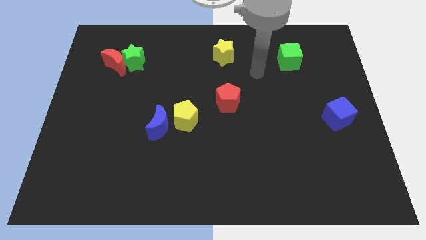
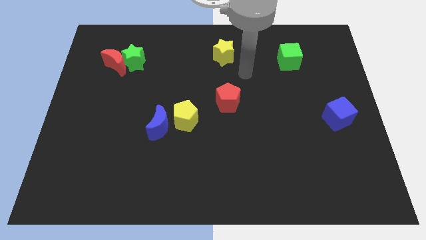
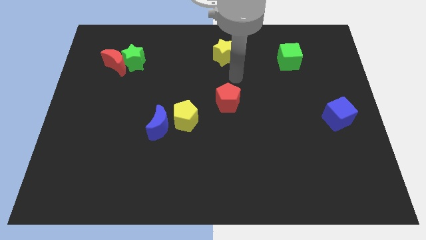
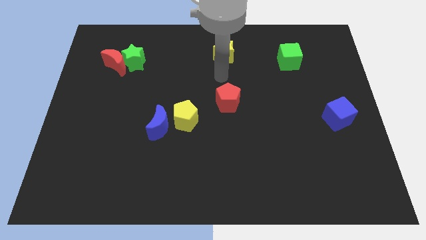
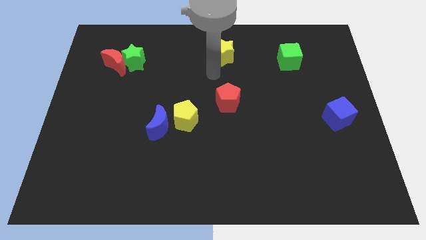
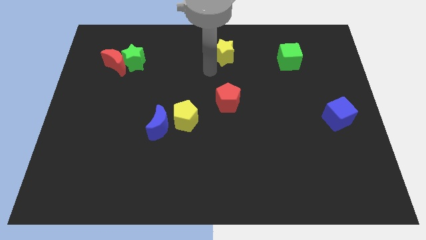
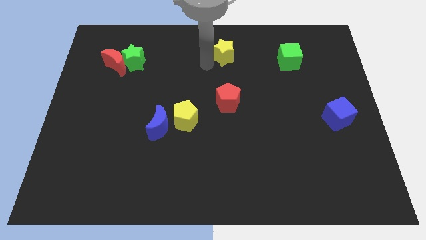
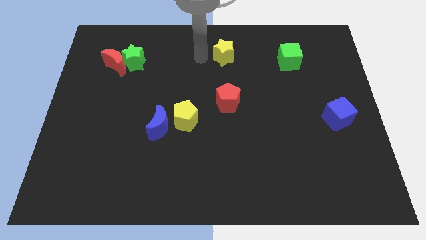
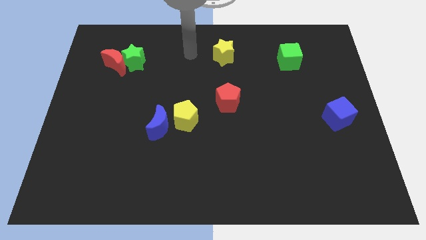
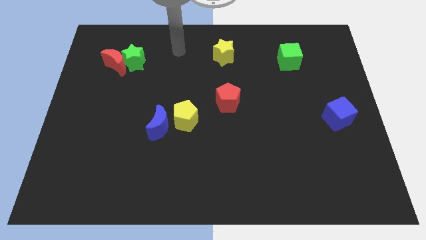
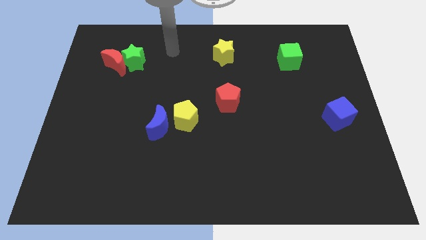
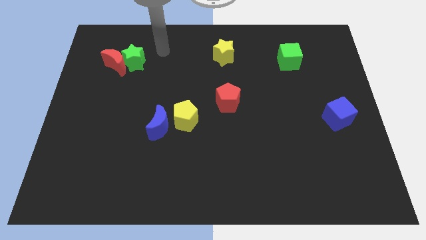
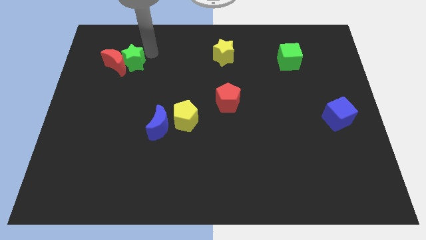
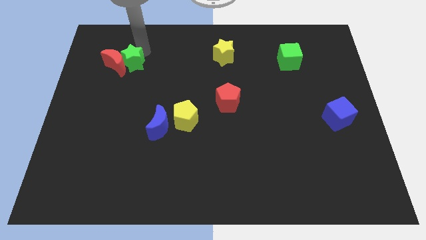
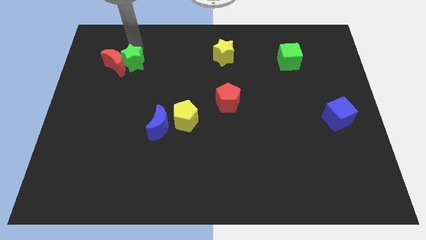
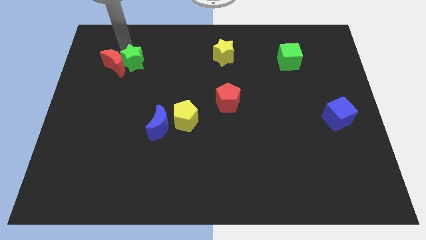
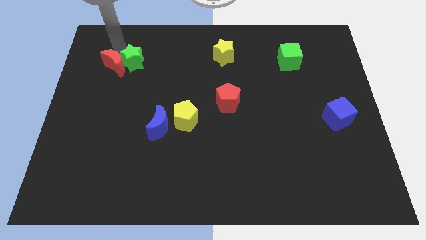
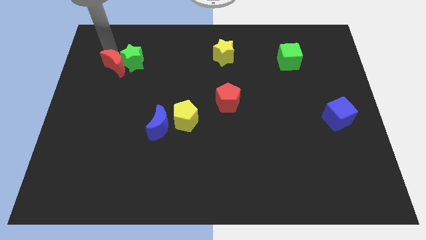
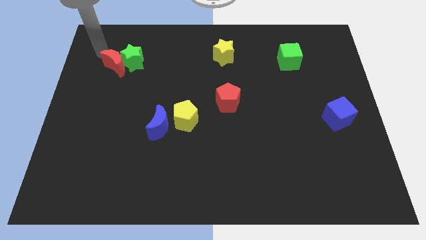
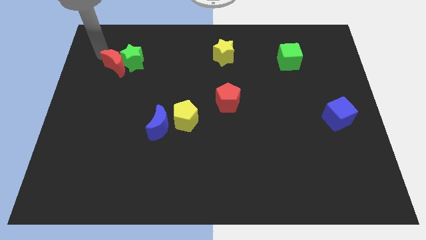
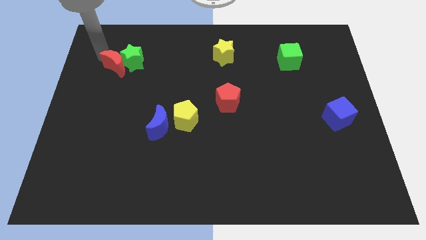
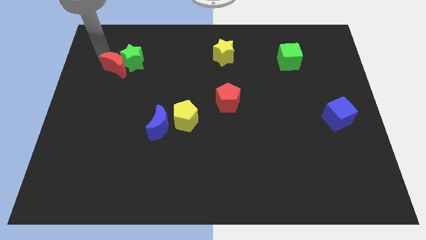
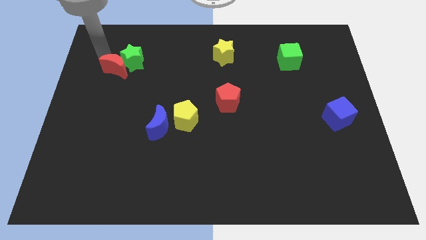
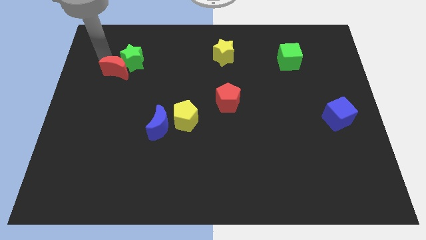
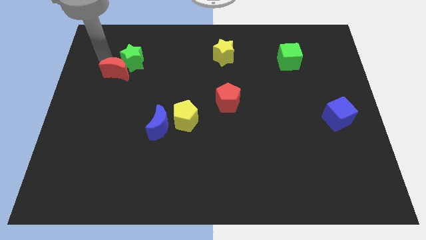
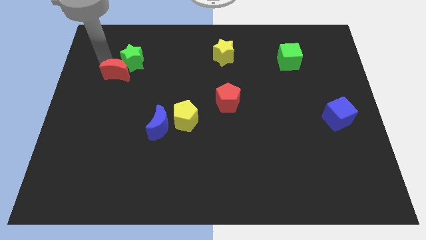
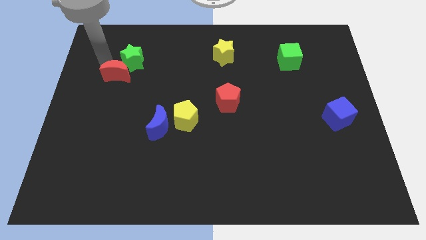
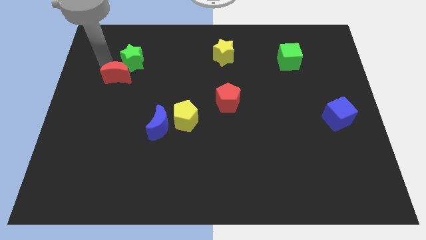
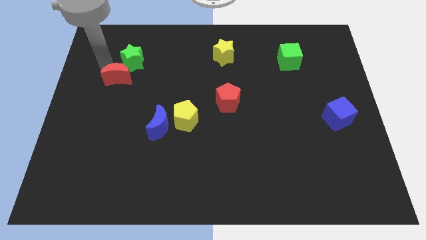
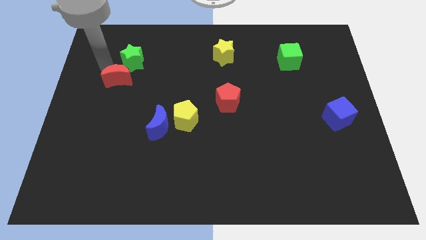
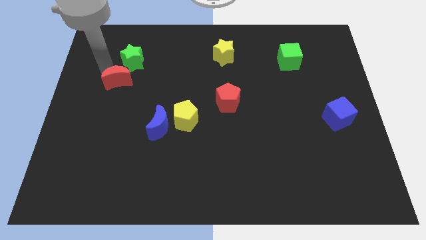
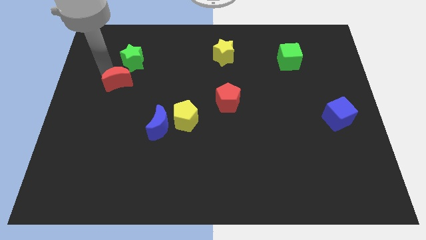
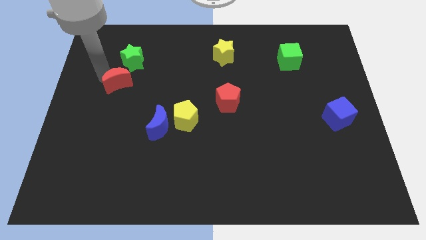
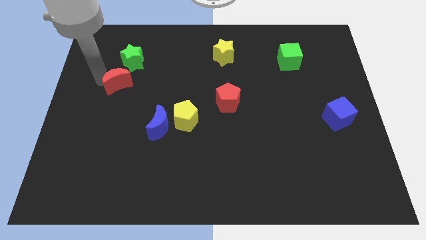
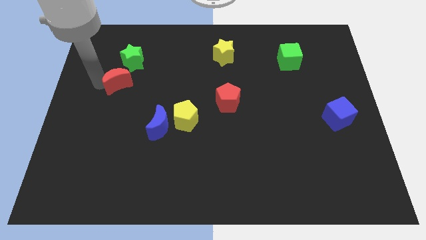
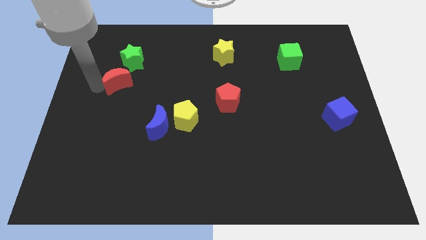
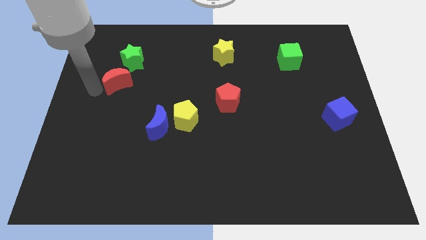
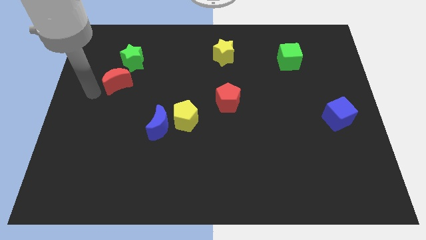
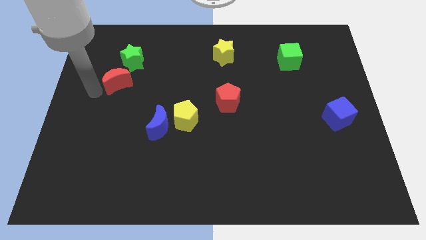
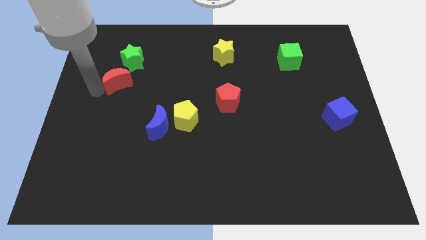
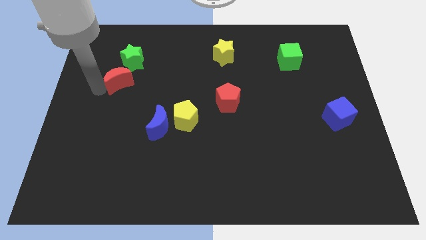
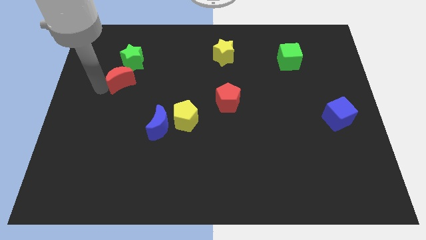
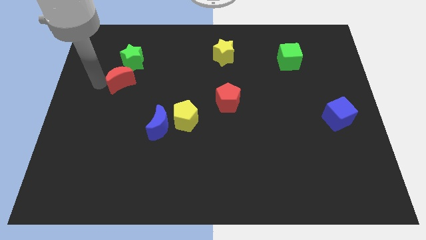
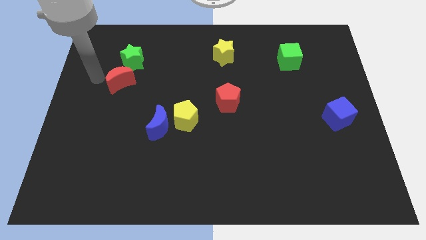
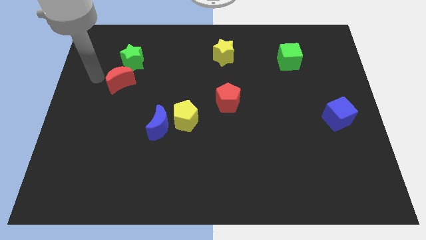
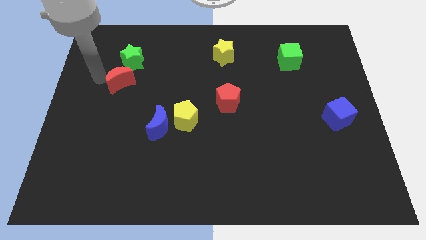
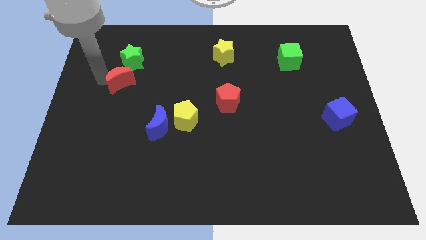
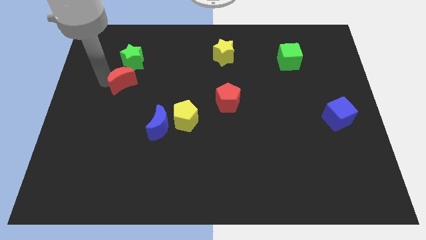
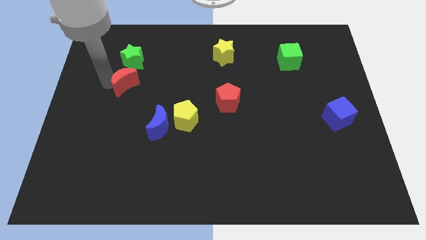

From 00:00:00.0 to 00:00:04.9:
move the red moon somewhat diagonally down and right

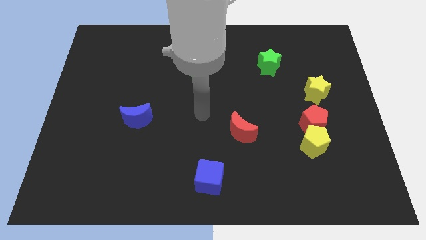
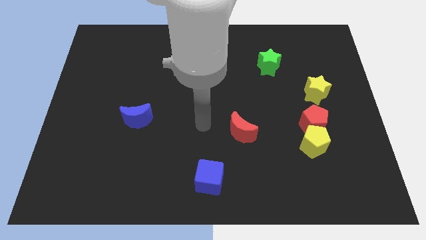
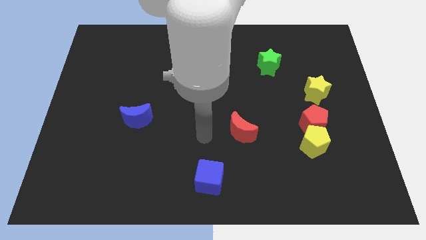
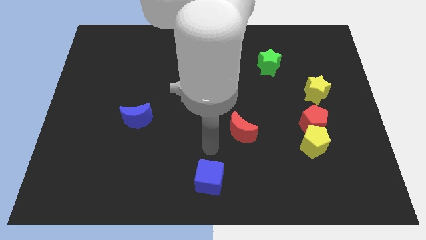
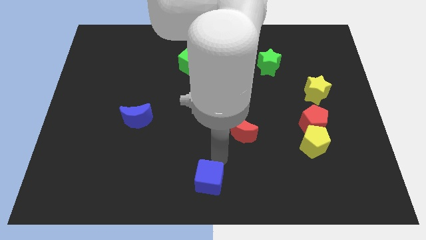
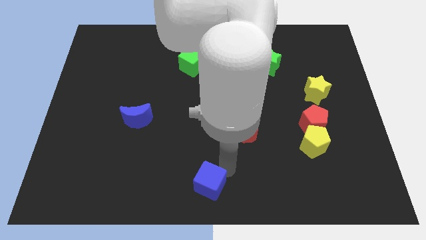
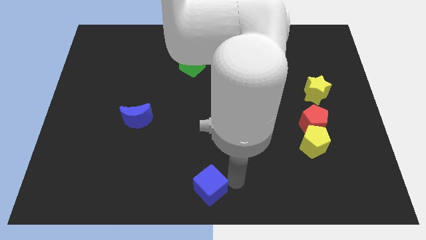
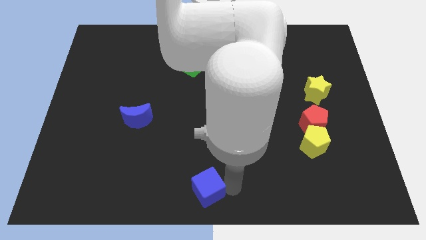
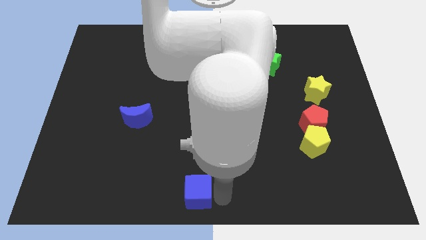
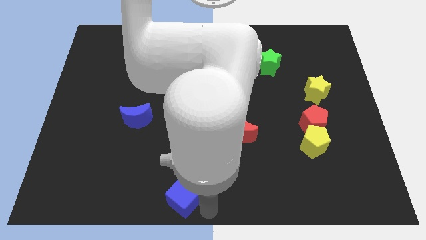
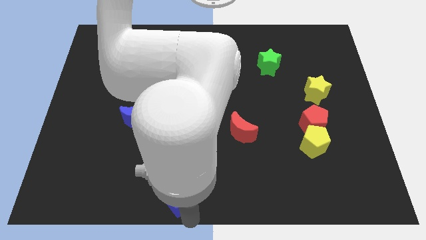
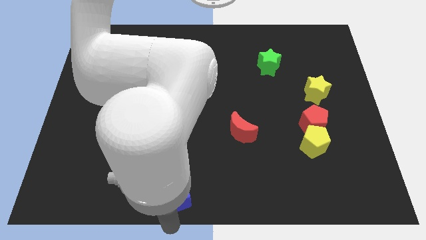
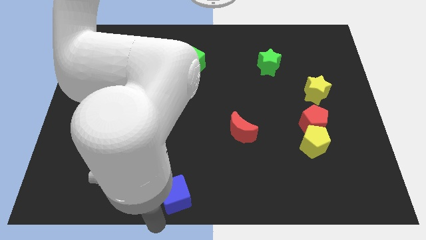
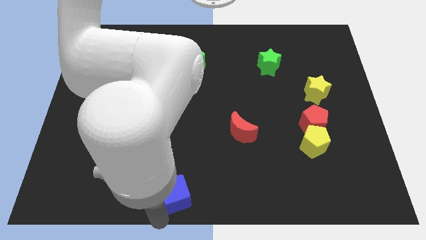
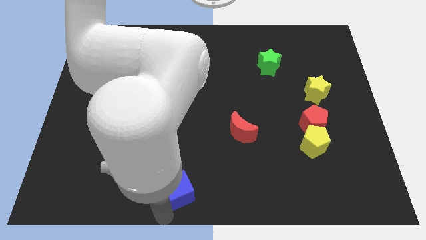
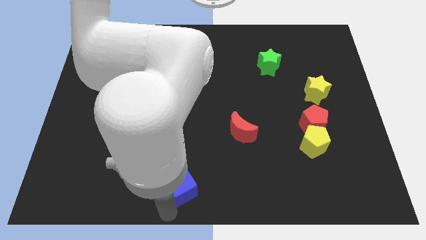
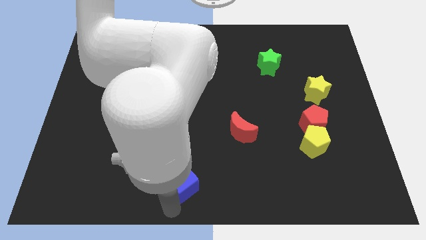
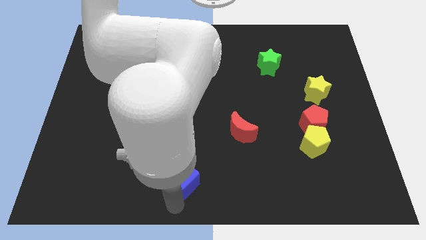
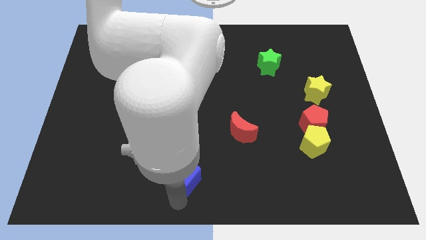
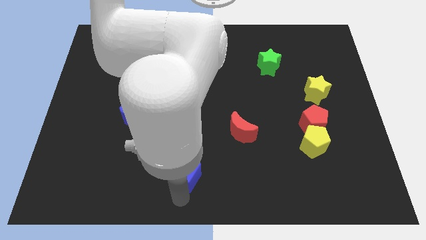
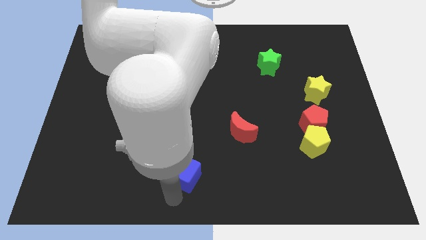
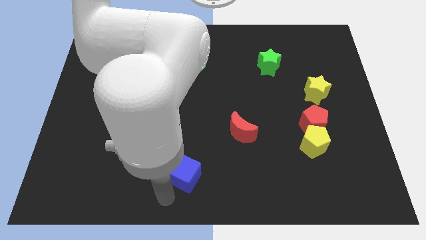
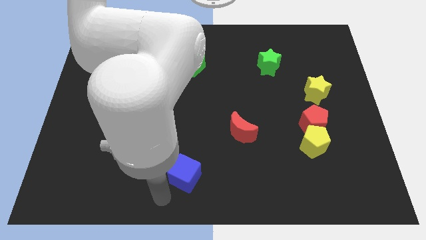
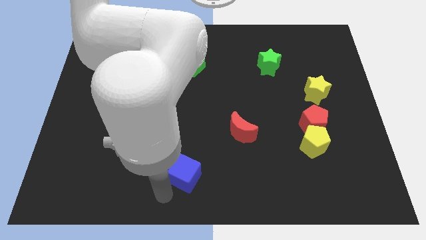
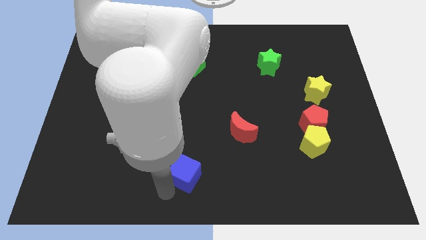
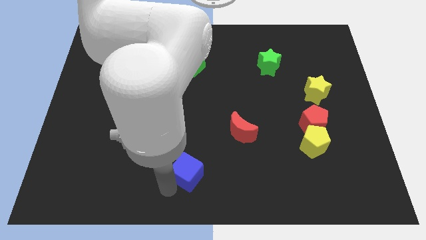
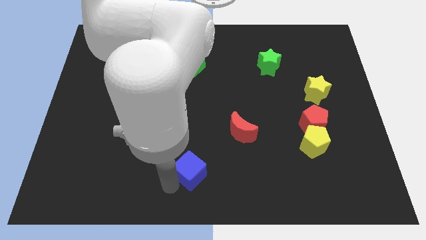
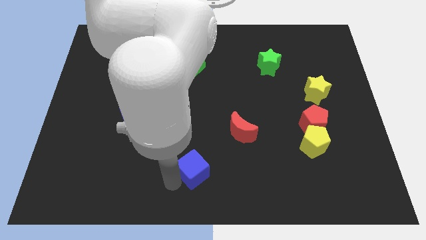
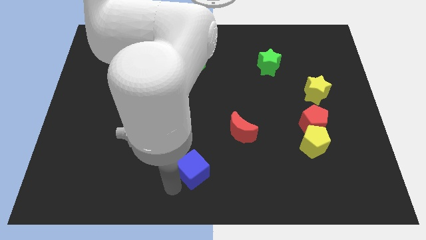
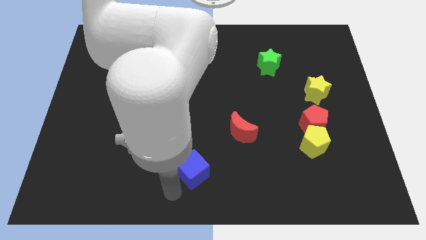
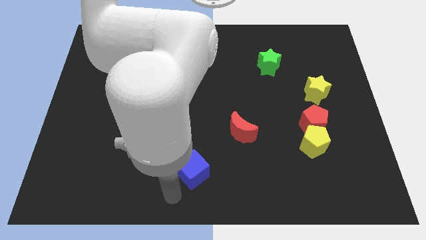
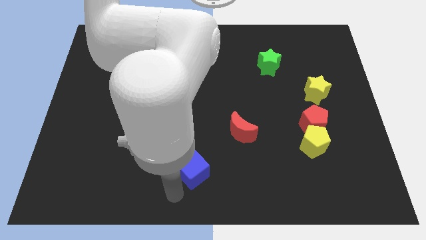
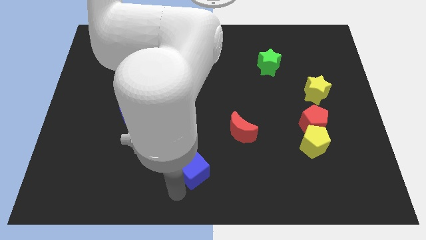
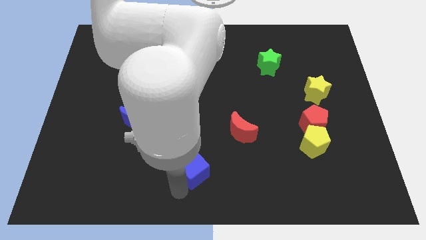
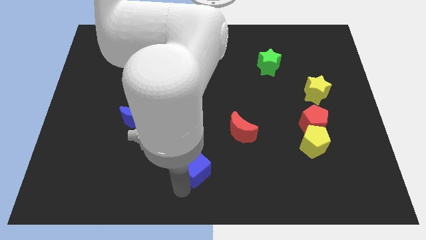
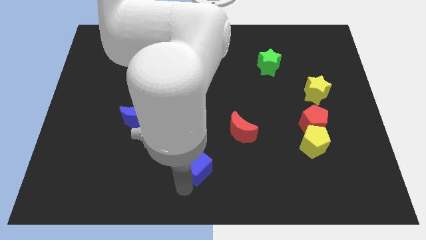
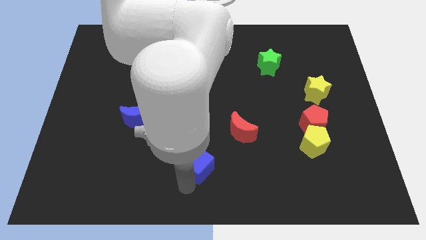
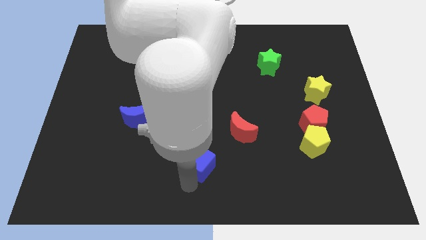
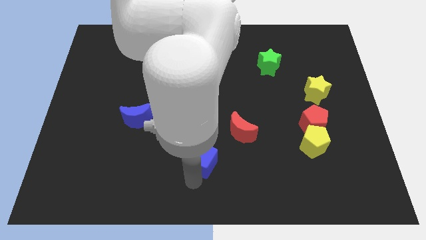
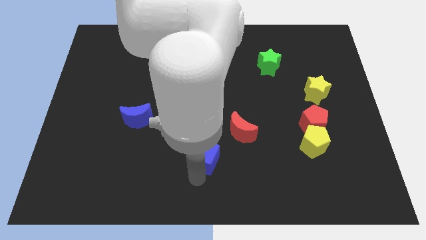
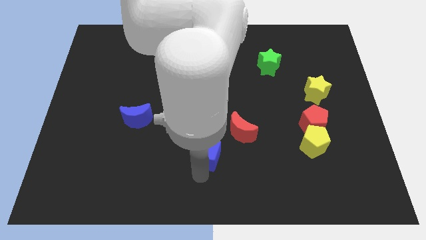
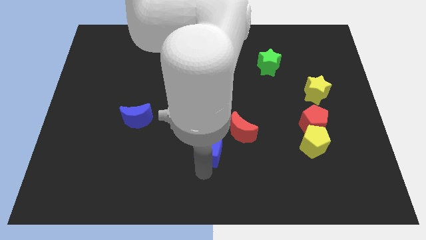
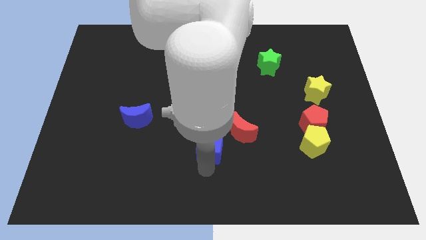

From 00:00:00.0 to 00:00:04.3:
slightly move the blue cube upwards
